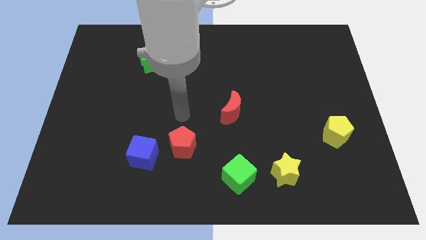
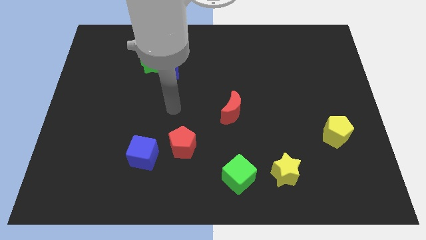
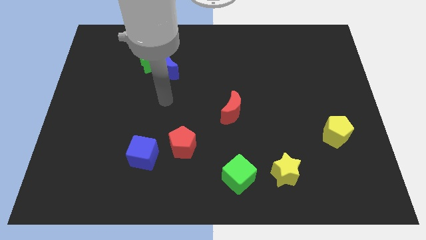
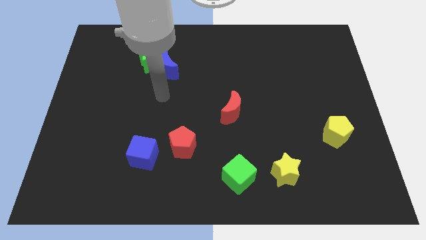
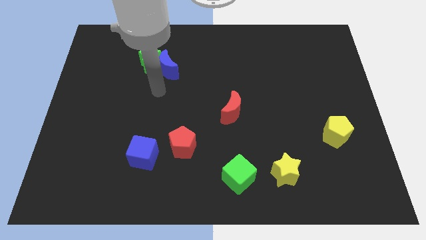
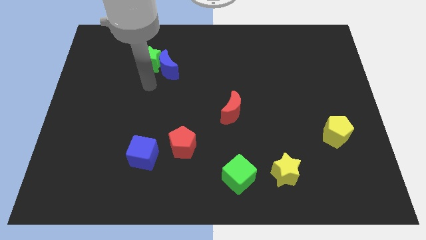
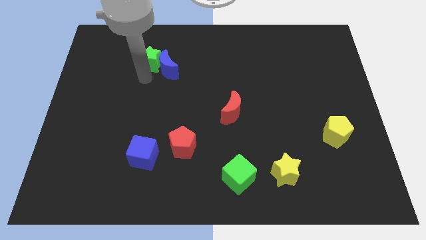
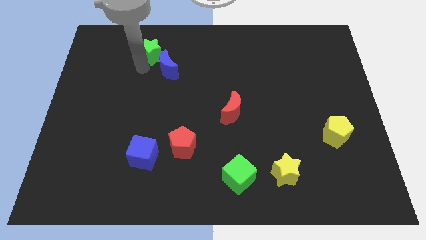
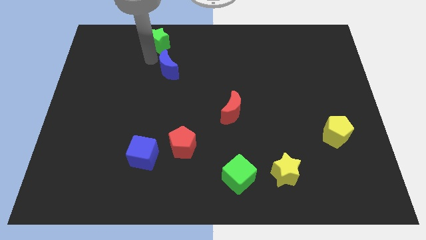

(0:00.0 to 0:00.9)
move the blue moon away from the green star

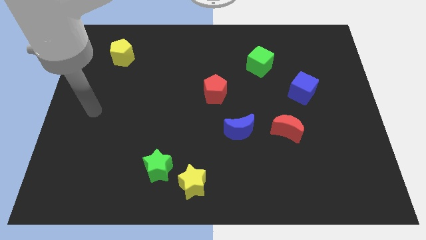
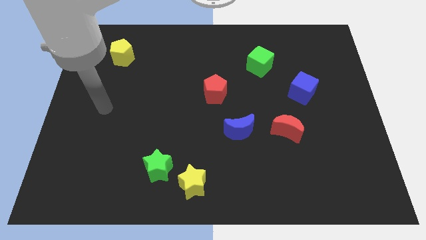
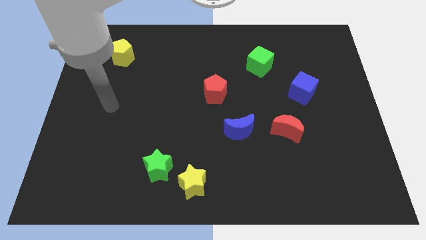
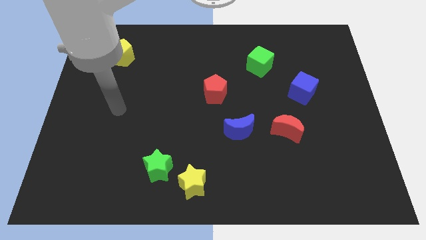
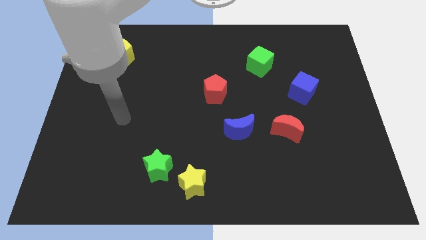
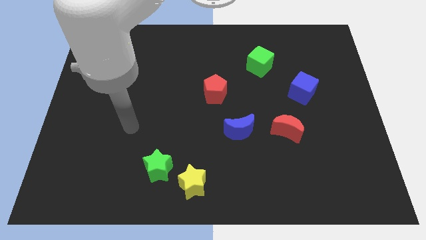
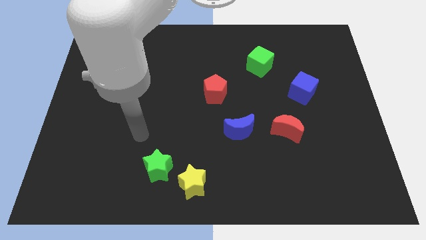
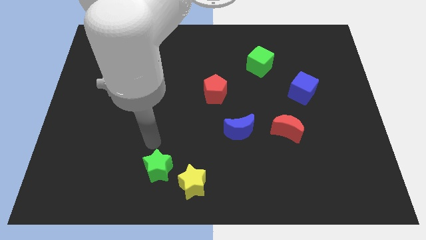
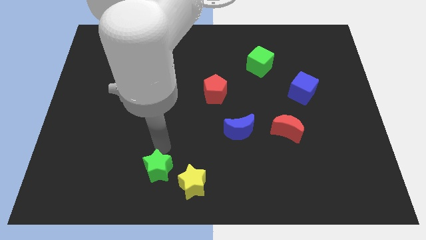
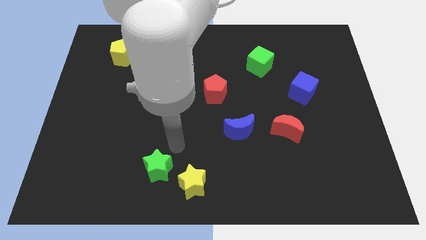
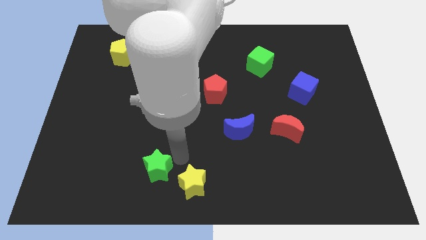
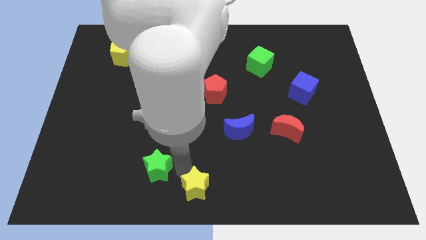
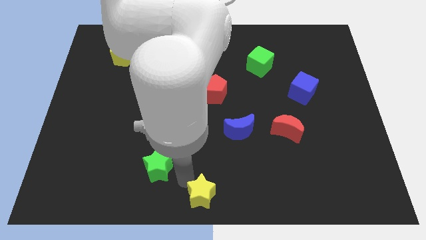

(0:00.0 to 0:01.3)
separate the green star from the yellow star

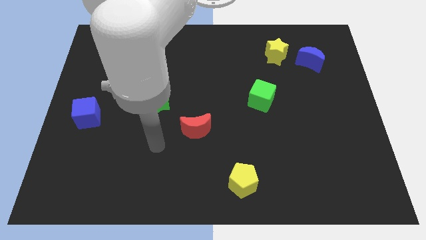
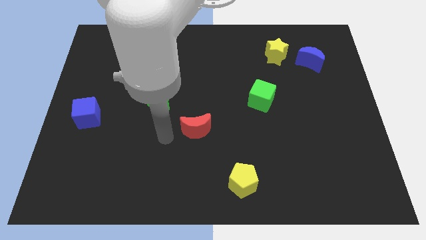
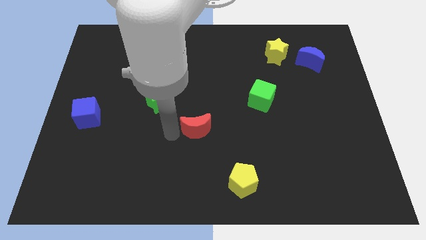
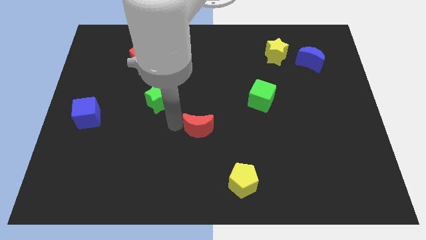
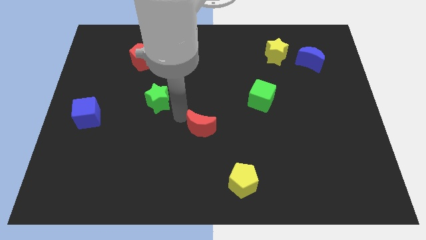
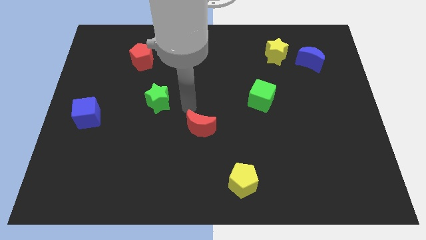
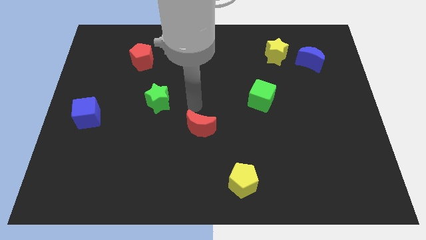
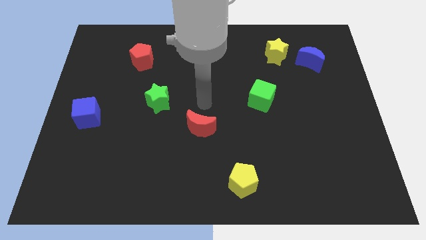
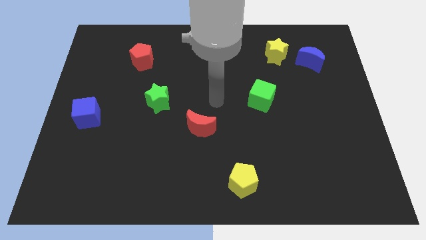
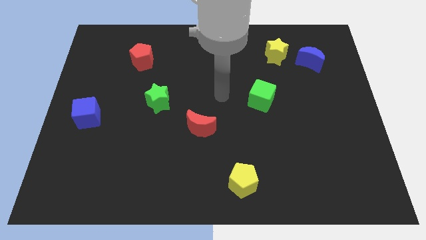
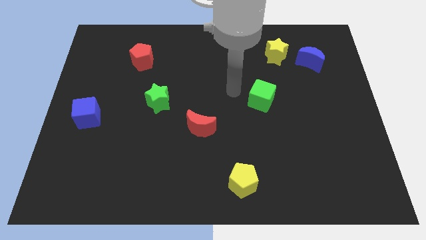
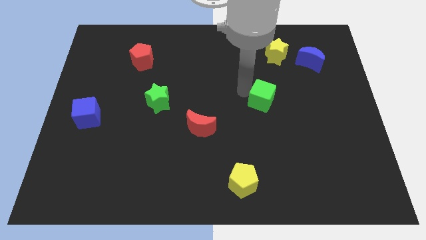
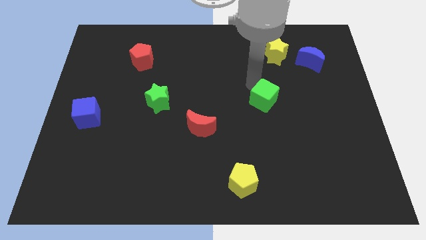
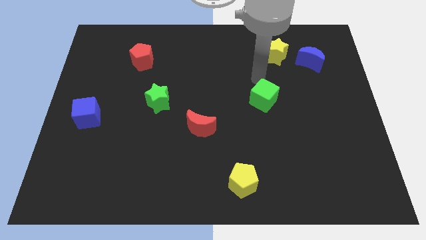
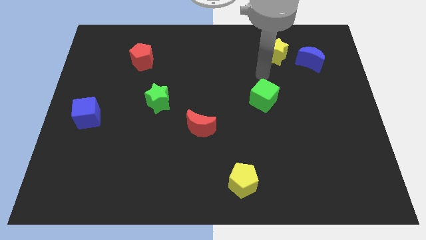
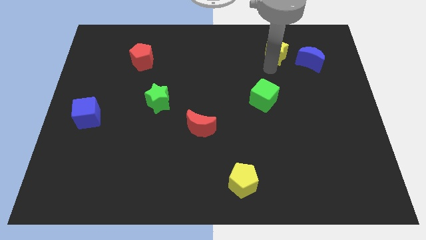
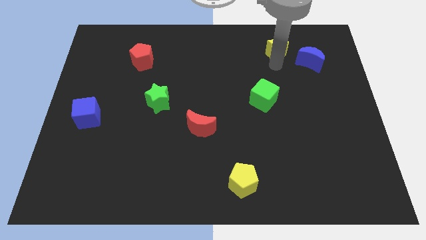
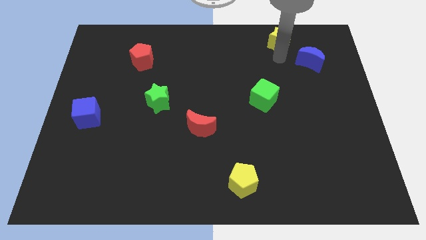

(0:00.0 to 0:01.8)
move the blue moon away from the yellow star

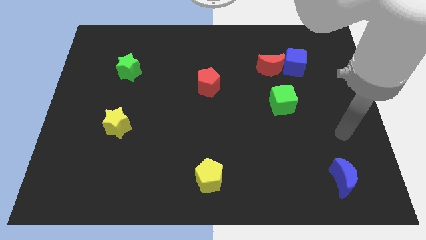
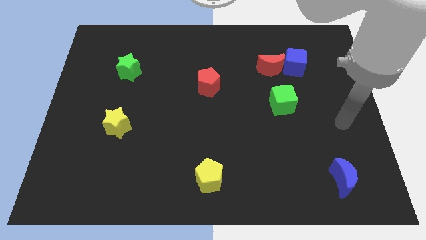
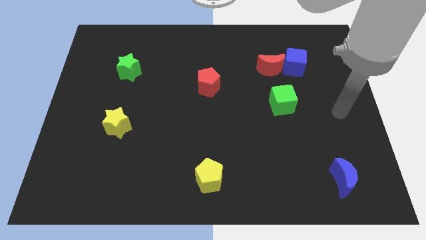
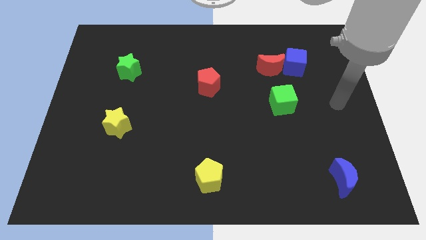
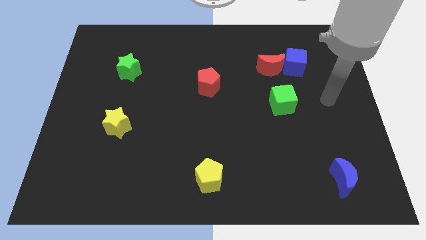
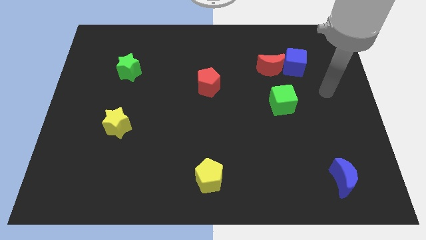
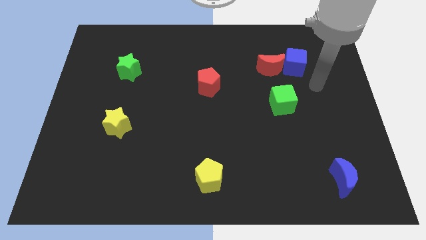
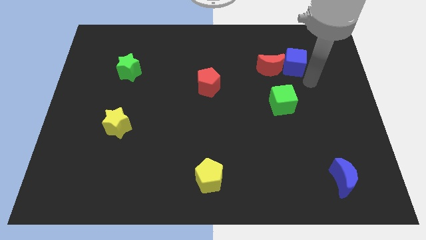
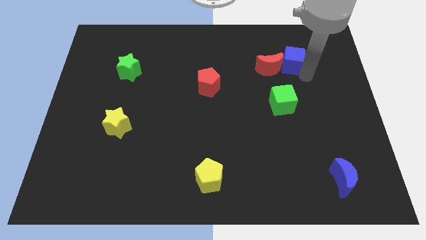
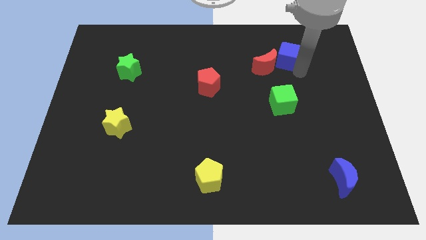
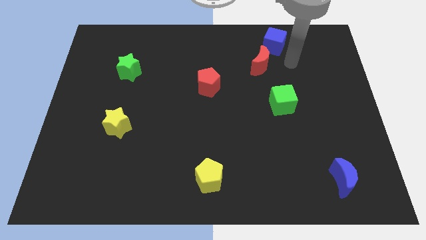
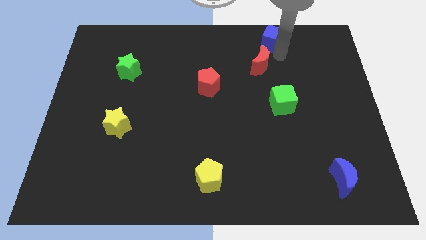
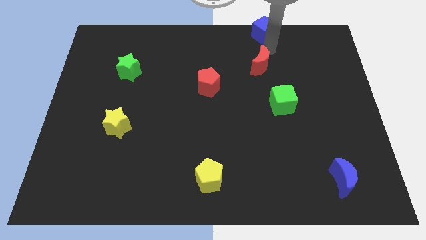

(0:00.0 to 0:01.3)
move the red moon away from the blue cube

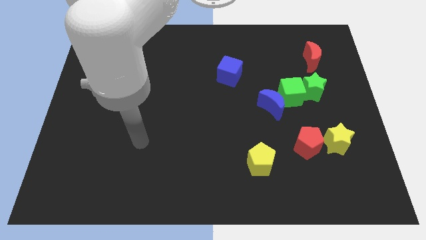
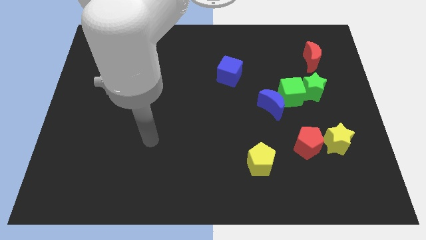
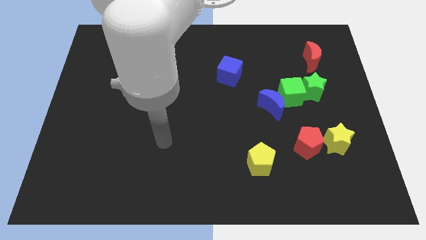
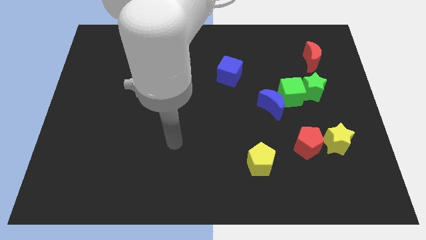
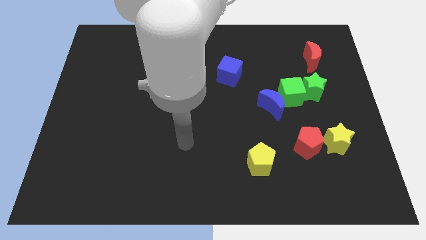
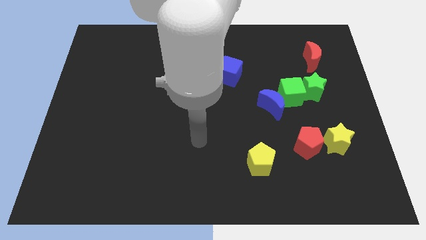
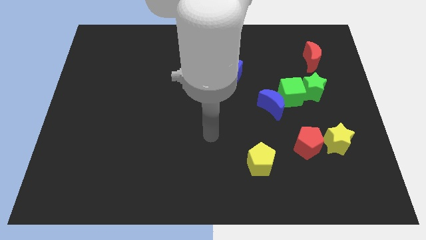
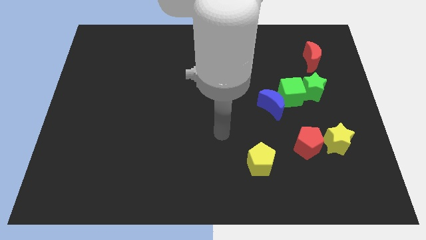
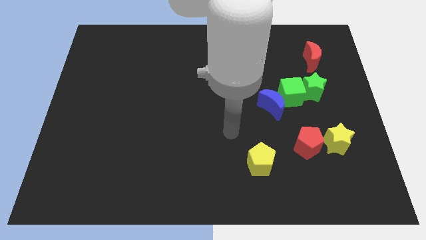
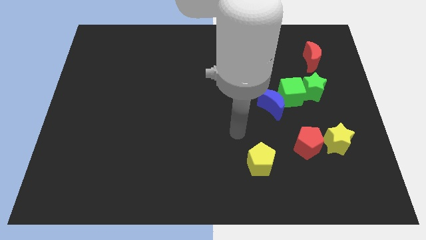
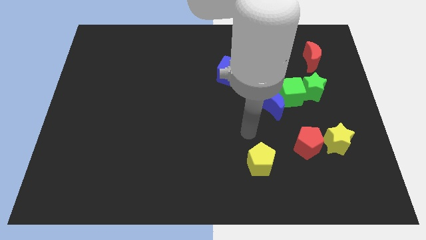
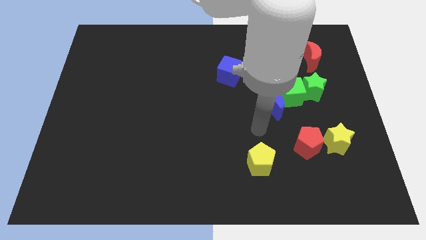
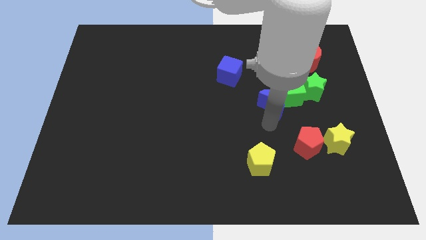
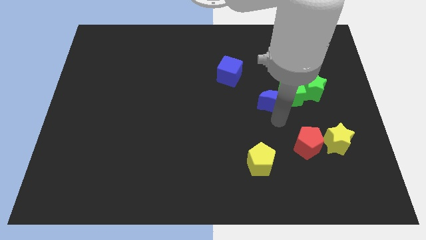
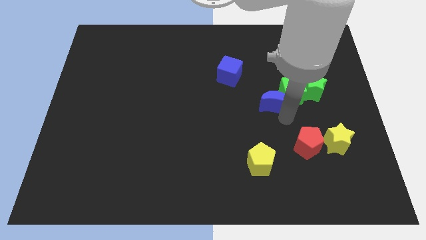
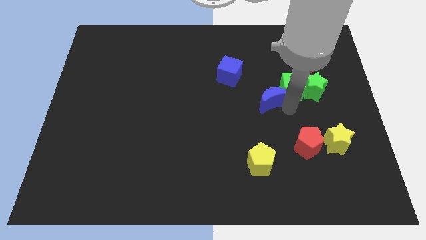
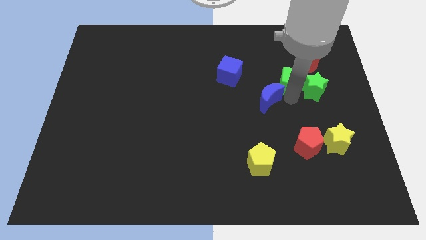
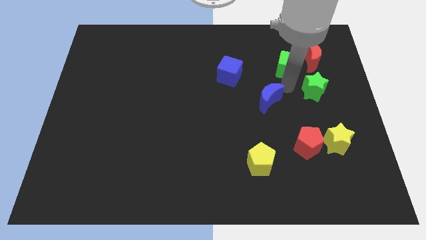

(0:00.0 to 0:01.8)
separate the blue moon from the green cube

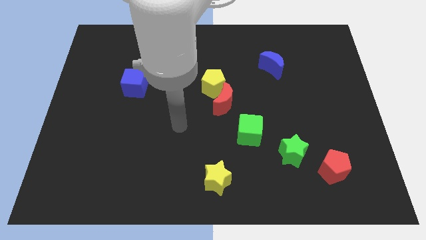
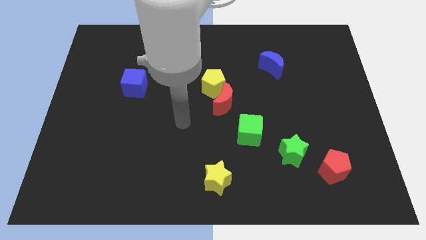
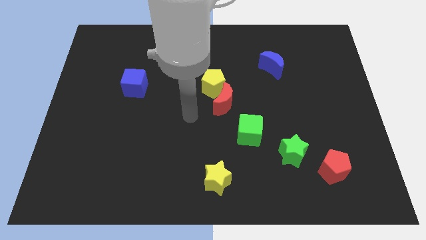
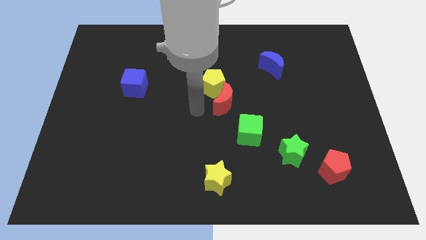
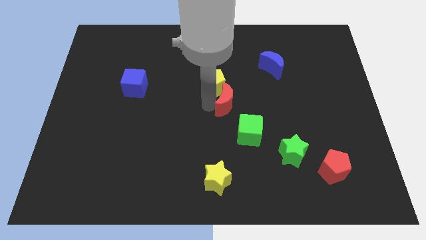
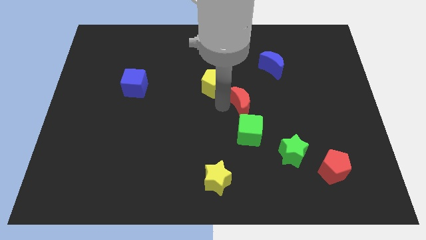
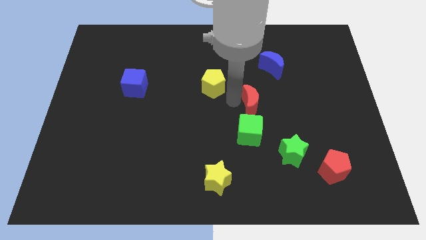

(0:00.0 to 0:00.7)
separate the yellow pentagon from the red moon

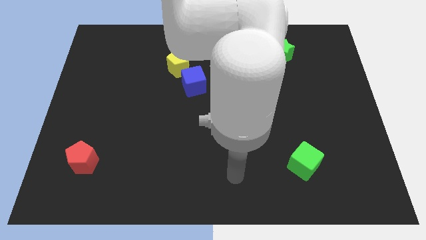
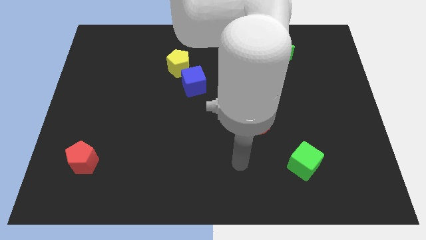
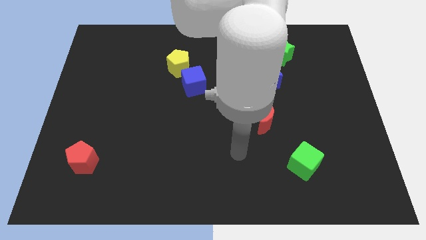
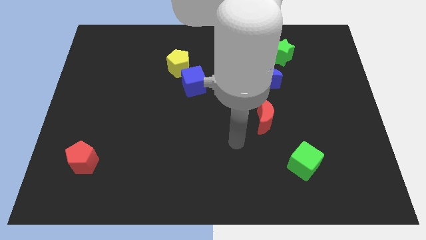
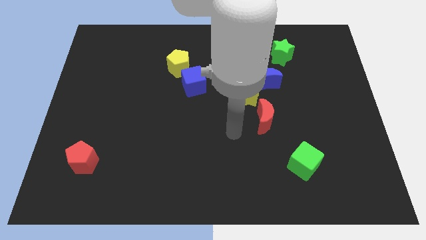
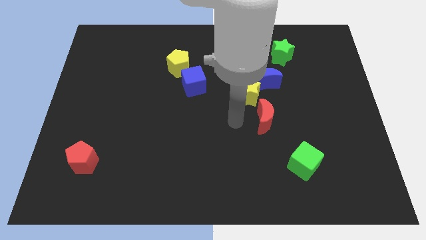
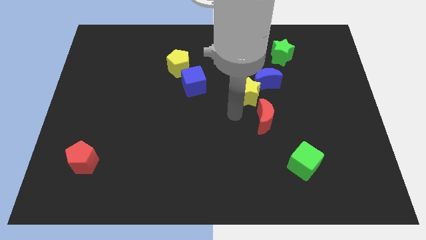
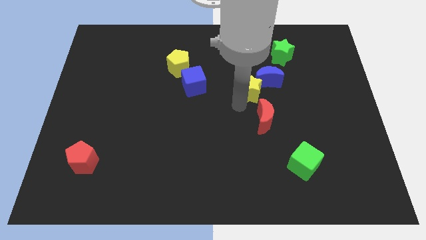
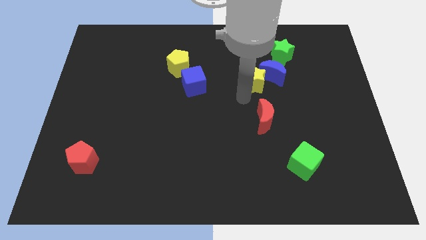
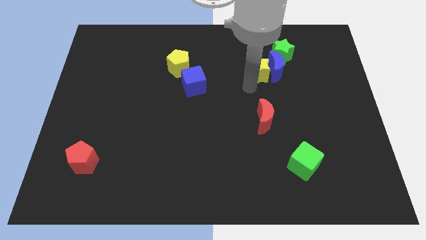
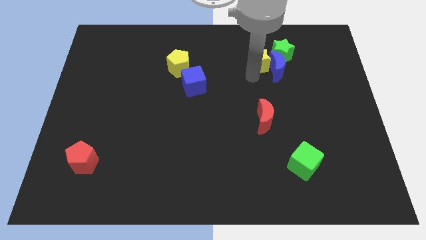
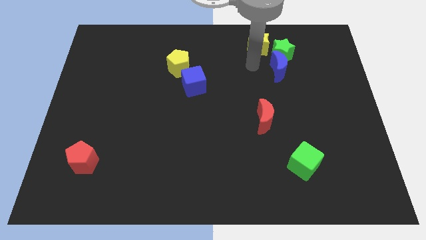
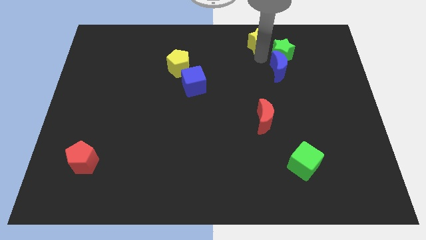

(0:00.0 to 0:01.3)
pull the blue moon apart from the yellow star
